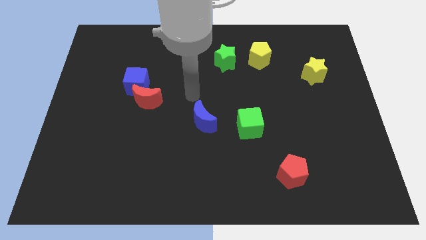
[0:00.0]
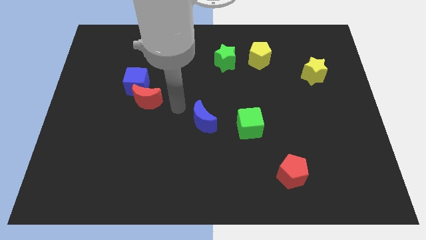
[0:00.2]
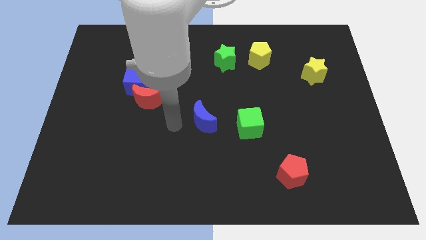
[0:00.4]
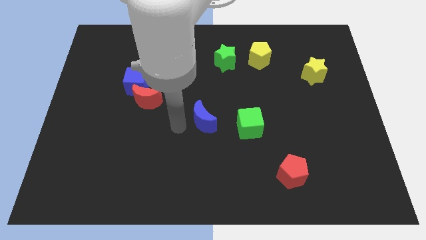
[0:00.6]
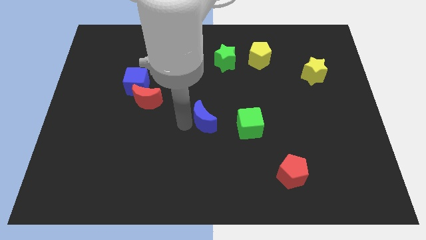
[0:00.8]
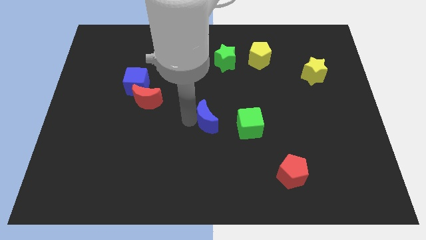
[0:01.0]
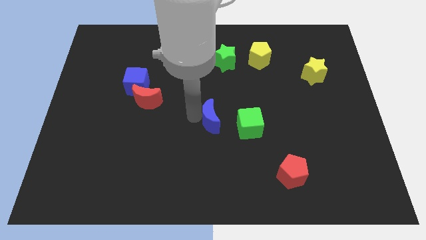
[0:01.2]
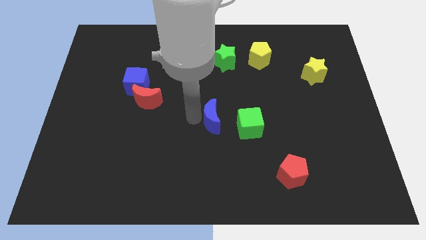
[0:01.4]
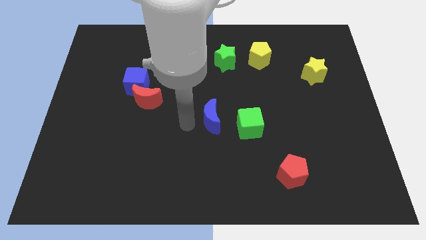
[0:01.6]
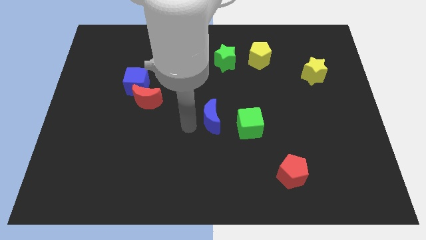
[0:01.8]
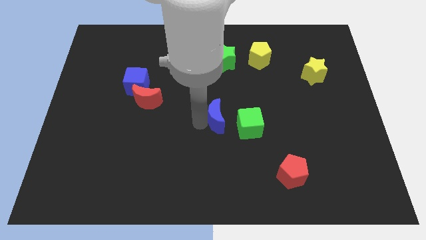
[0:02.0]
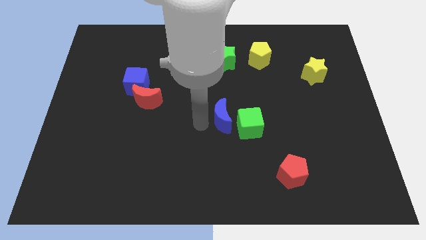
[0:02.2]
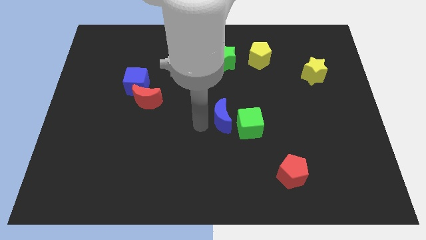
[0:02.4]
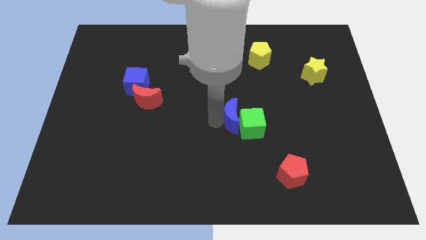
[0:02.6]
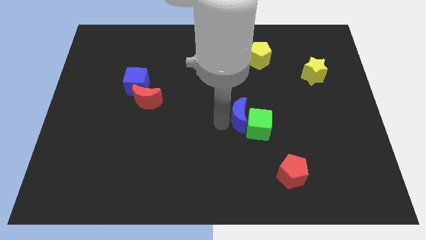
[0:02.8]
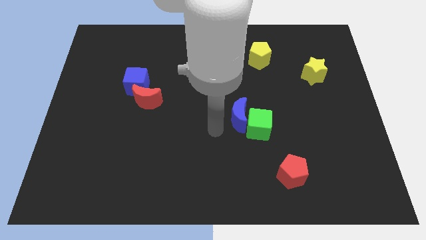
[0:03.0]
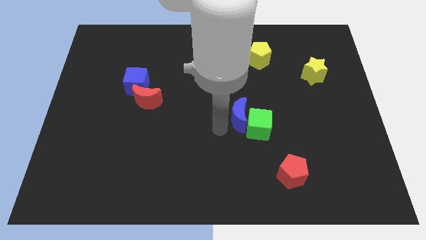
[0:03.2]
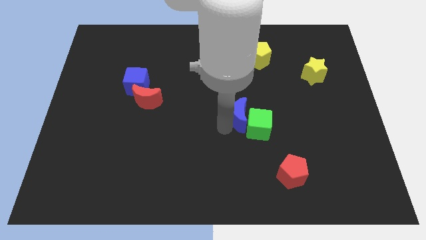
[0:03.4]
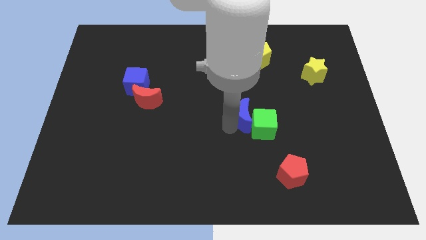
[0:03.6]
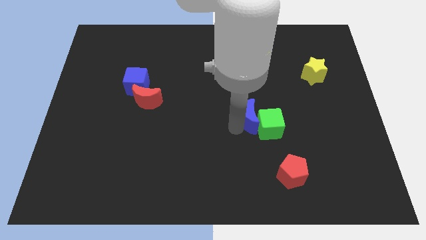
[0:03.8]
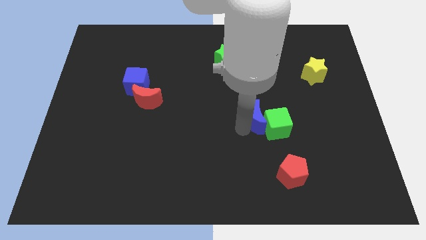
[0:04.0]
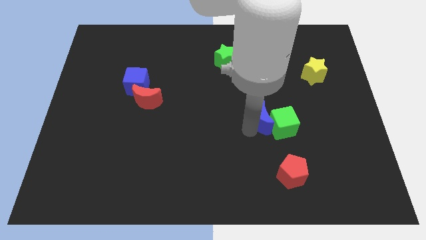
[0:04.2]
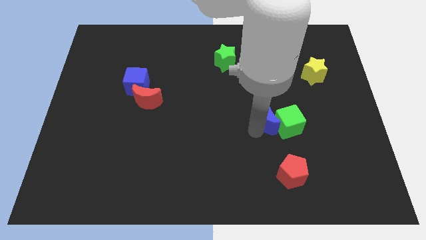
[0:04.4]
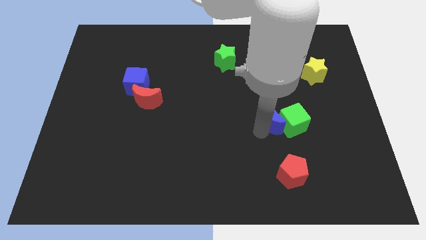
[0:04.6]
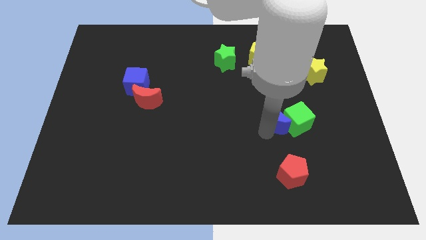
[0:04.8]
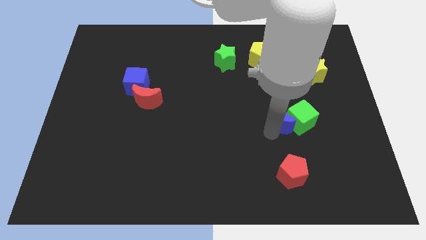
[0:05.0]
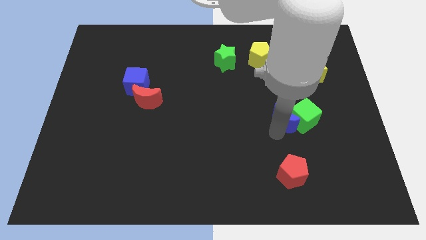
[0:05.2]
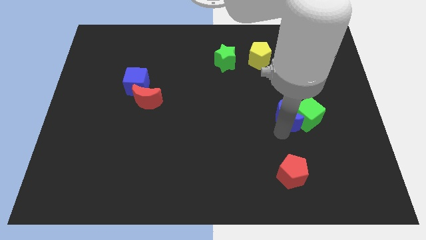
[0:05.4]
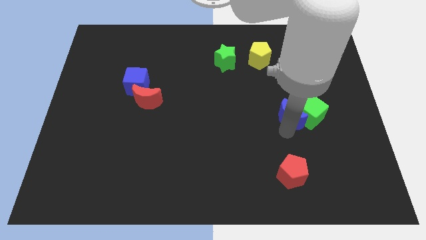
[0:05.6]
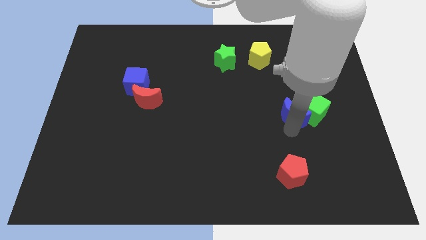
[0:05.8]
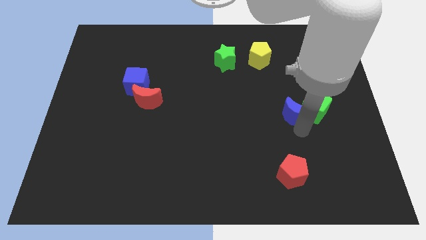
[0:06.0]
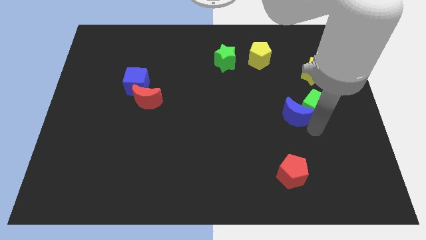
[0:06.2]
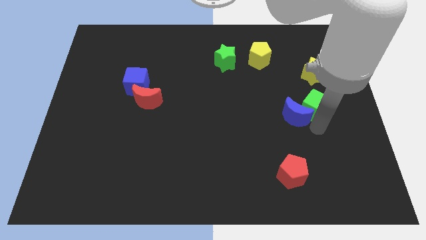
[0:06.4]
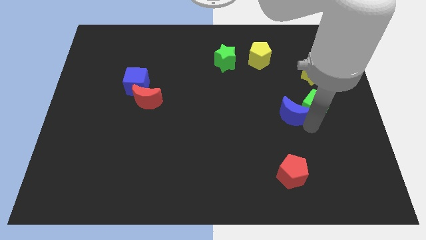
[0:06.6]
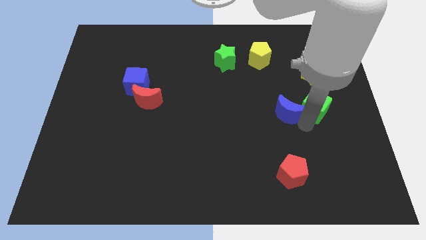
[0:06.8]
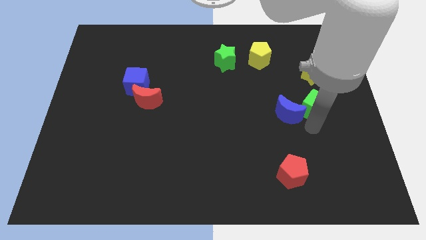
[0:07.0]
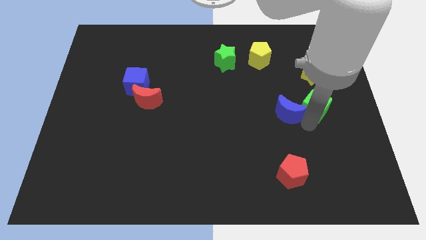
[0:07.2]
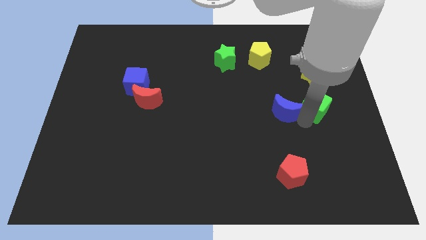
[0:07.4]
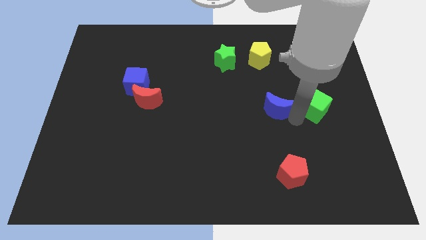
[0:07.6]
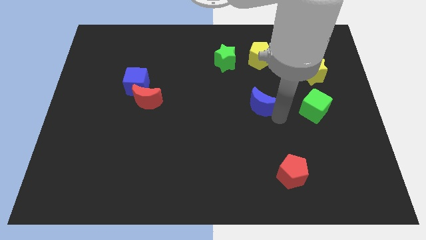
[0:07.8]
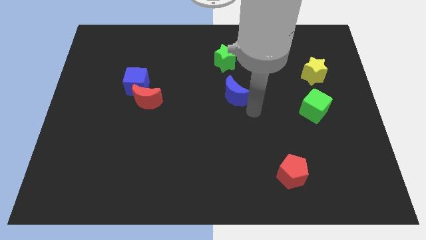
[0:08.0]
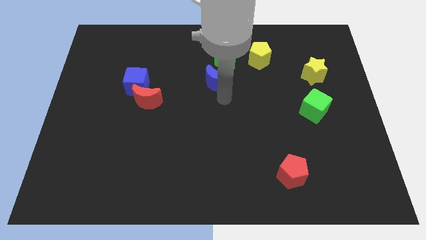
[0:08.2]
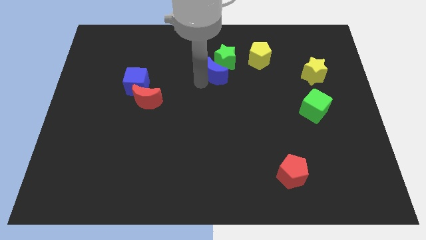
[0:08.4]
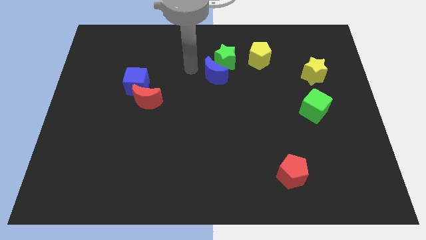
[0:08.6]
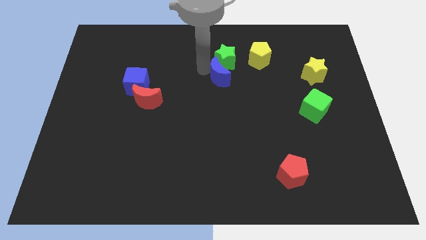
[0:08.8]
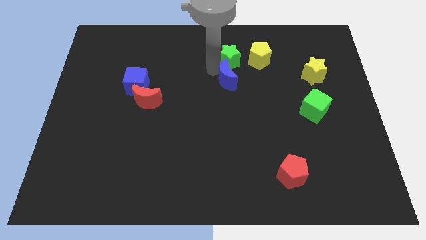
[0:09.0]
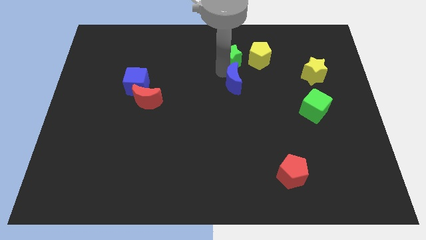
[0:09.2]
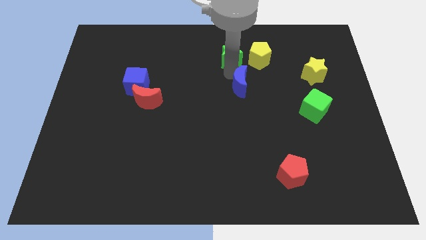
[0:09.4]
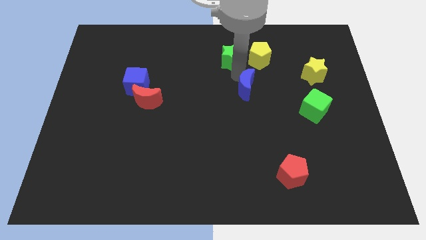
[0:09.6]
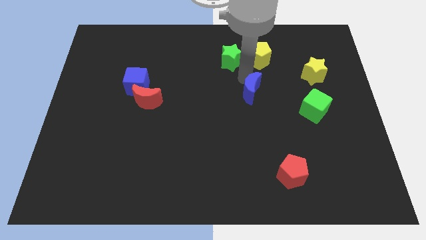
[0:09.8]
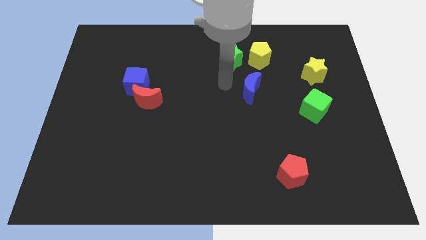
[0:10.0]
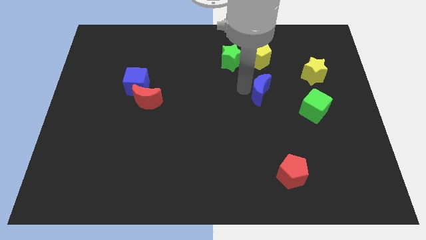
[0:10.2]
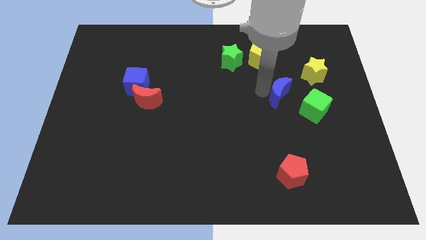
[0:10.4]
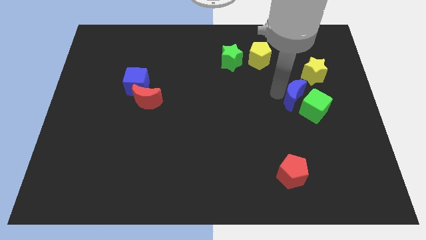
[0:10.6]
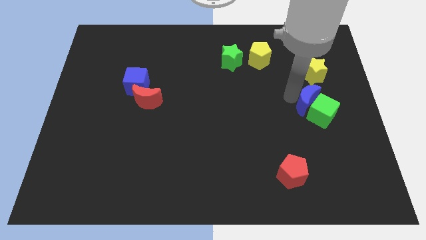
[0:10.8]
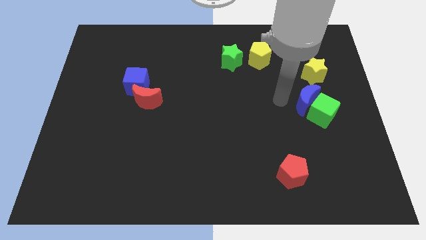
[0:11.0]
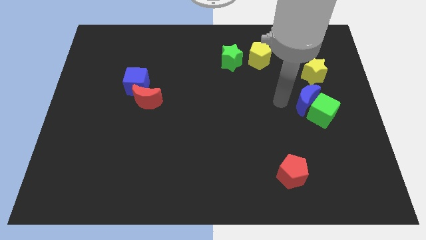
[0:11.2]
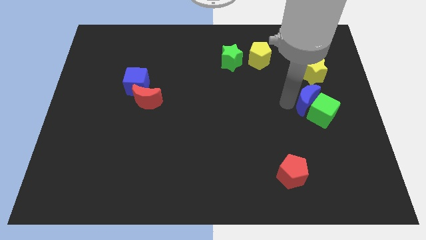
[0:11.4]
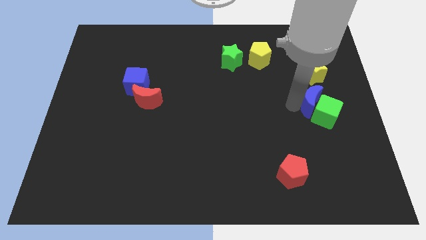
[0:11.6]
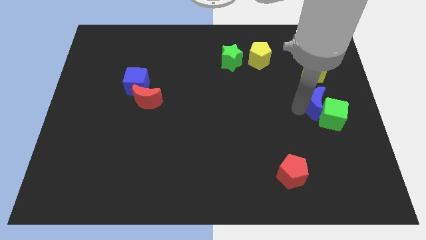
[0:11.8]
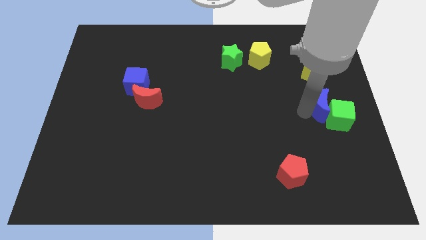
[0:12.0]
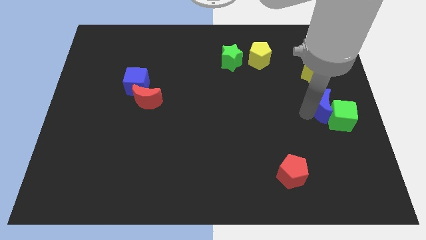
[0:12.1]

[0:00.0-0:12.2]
slide the blue moon to the center right
